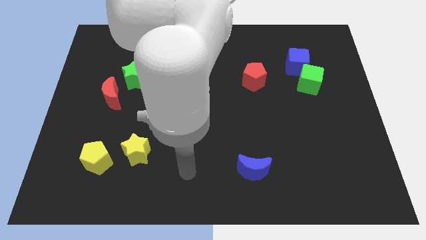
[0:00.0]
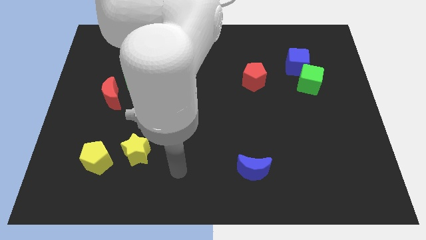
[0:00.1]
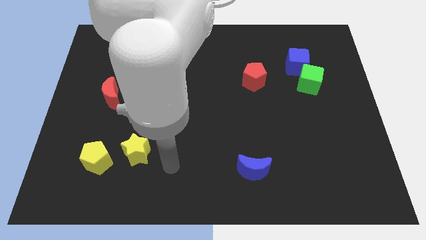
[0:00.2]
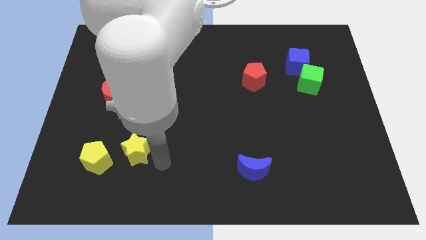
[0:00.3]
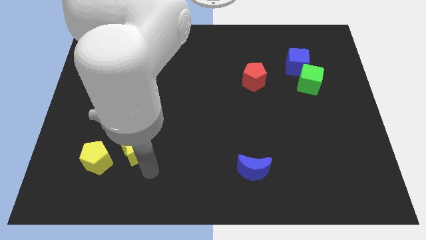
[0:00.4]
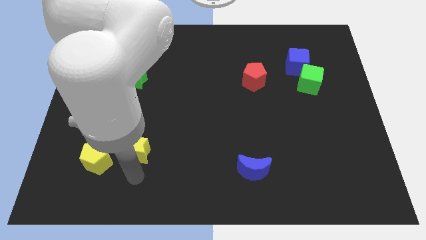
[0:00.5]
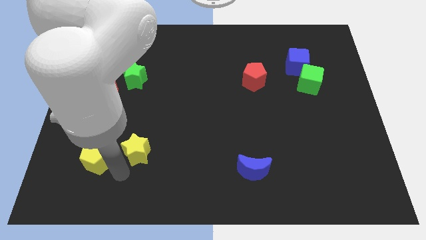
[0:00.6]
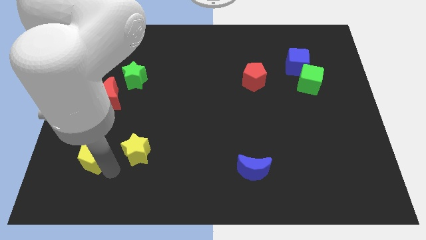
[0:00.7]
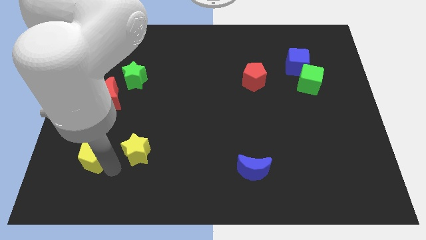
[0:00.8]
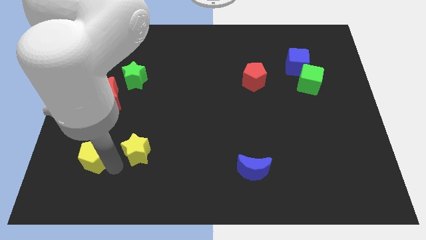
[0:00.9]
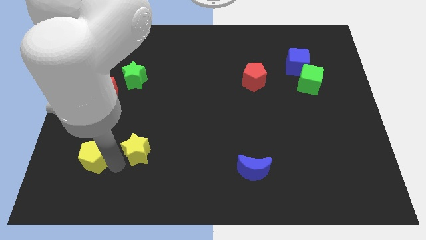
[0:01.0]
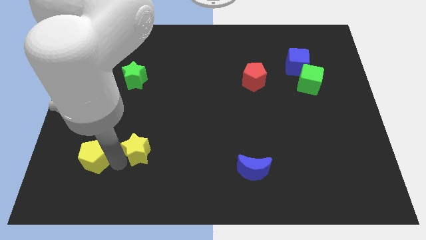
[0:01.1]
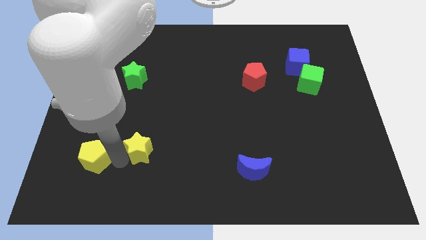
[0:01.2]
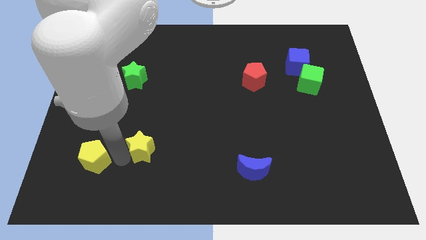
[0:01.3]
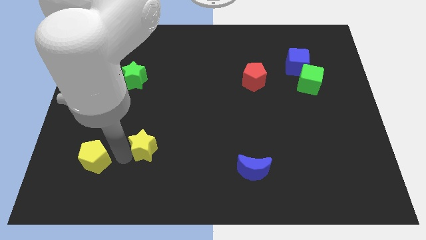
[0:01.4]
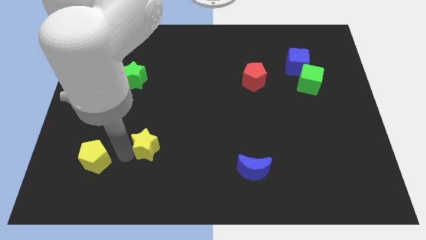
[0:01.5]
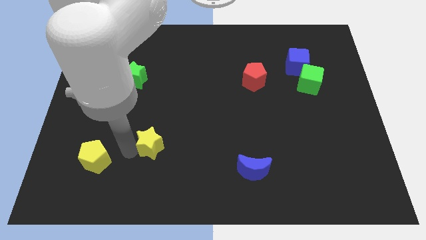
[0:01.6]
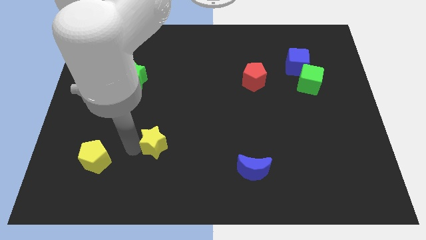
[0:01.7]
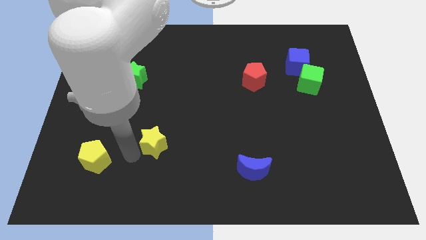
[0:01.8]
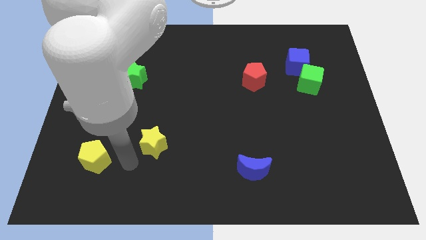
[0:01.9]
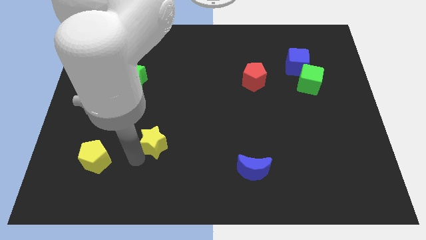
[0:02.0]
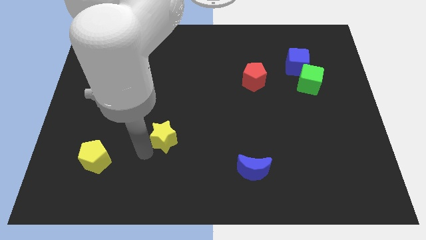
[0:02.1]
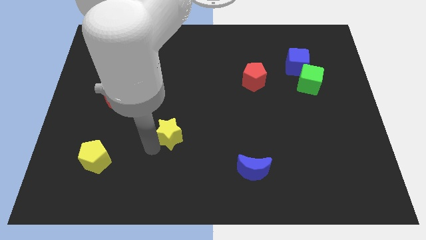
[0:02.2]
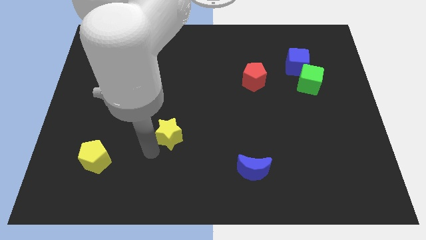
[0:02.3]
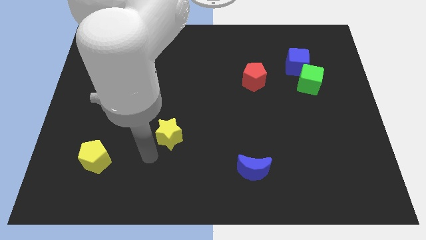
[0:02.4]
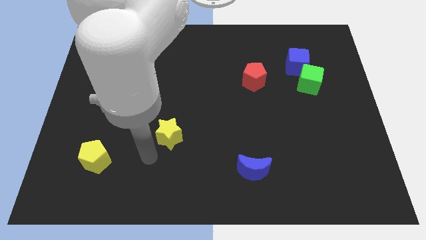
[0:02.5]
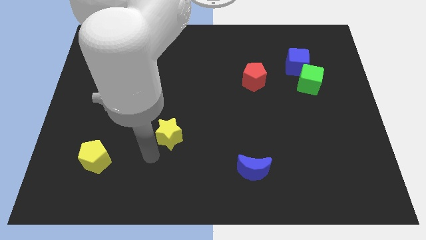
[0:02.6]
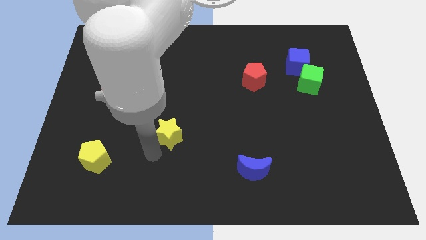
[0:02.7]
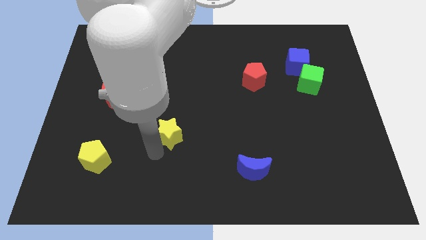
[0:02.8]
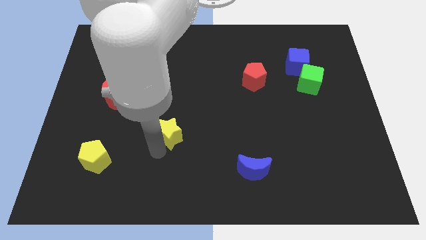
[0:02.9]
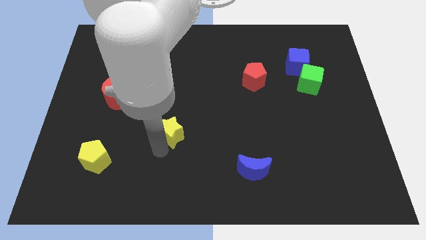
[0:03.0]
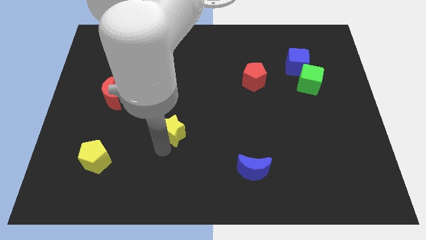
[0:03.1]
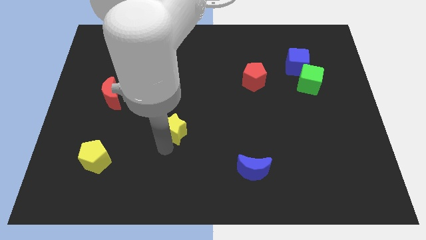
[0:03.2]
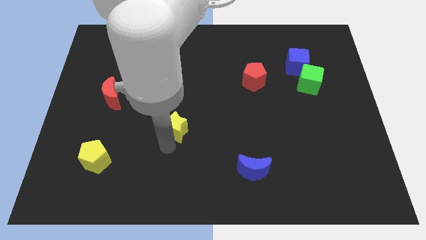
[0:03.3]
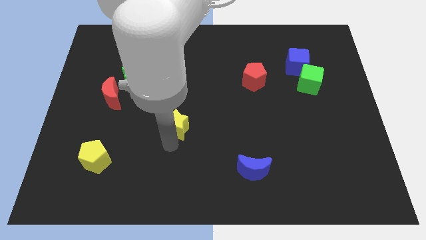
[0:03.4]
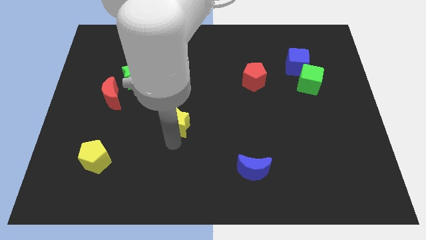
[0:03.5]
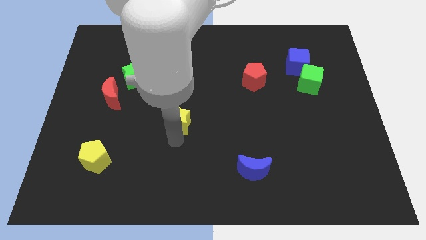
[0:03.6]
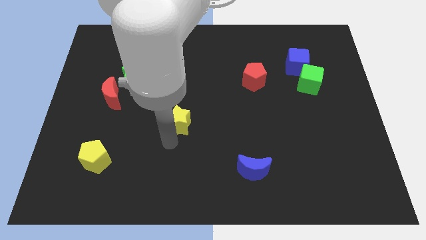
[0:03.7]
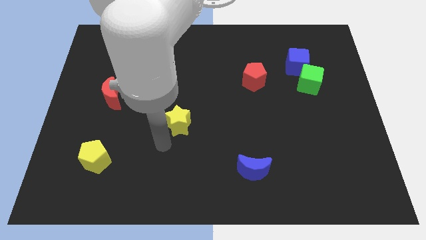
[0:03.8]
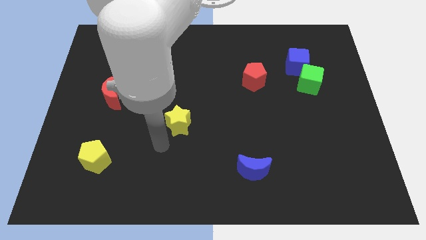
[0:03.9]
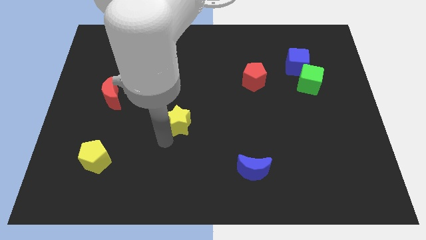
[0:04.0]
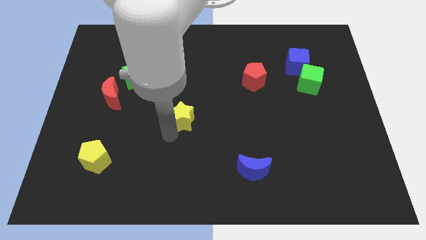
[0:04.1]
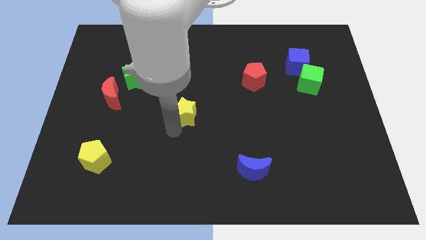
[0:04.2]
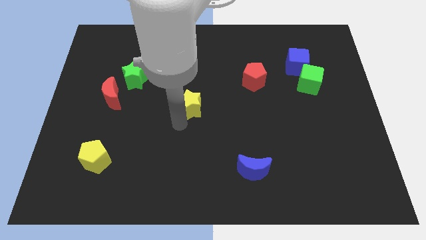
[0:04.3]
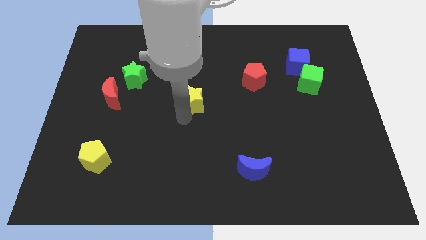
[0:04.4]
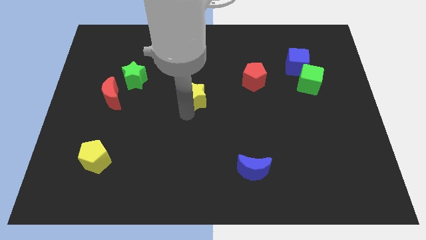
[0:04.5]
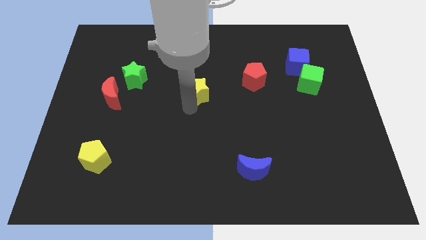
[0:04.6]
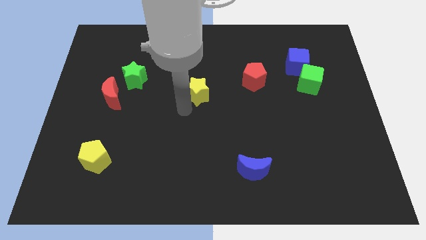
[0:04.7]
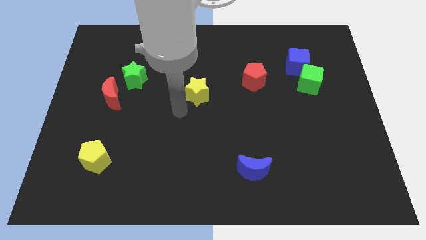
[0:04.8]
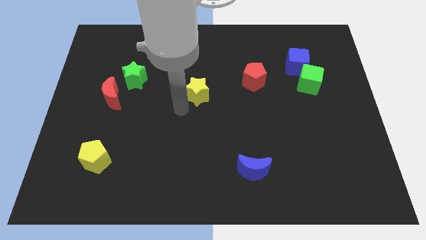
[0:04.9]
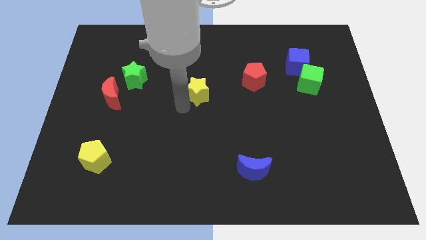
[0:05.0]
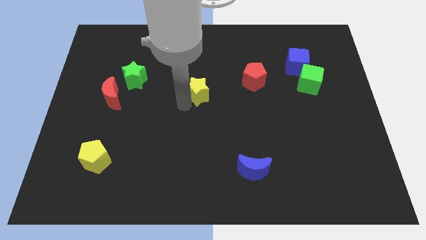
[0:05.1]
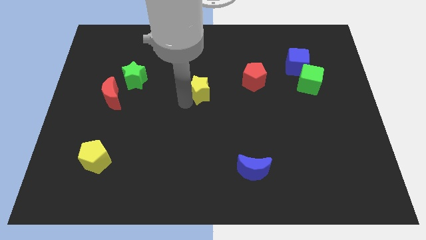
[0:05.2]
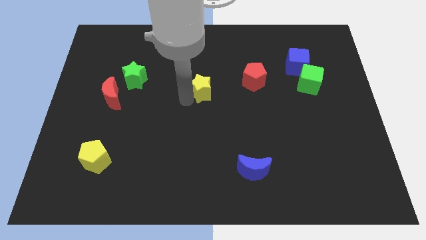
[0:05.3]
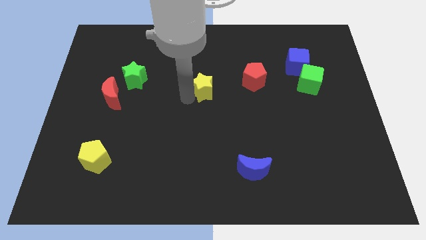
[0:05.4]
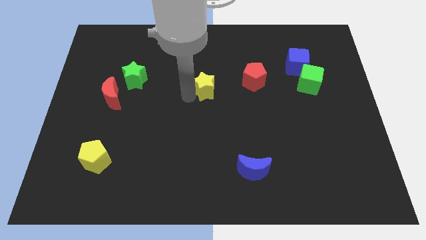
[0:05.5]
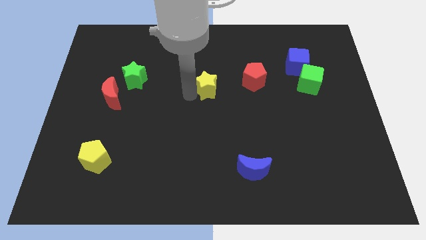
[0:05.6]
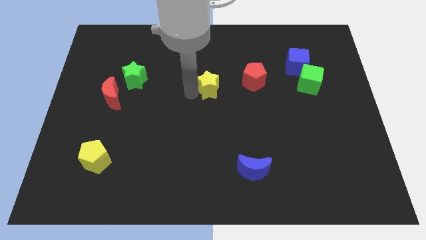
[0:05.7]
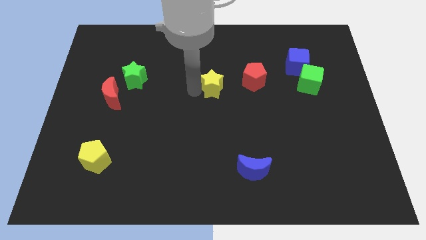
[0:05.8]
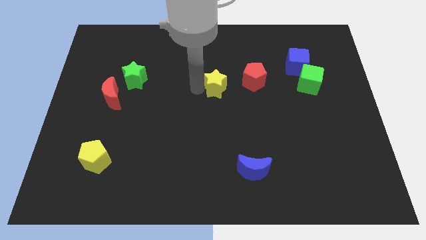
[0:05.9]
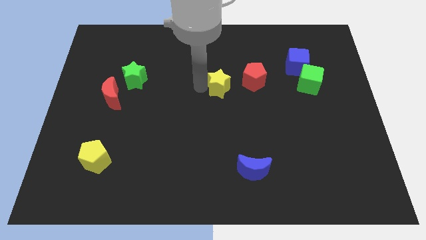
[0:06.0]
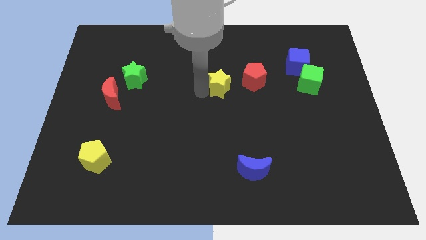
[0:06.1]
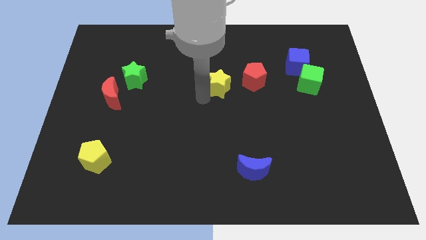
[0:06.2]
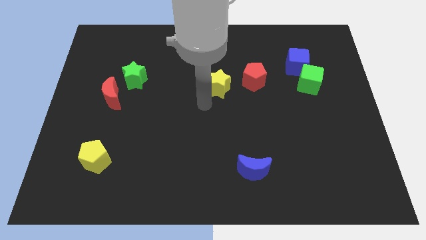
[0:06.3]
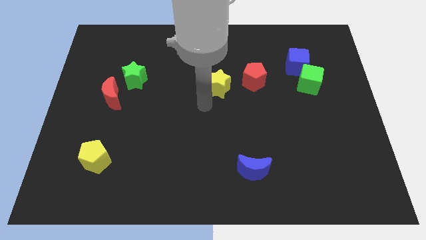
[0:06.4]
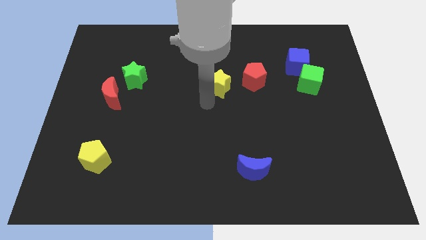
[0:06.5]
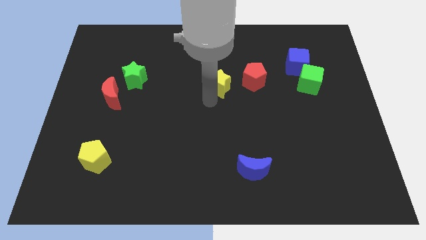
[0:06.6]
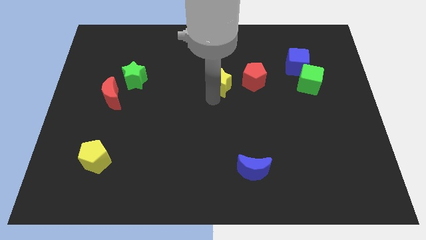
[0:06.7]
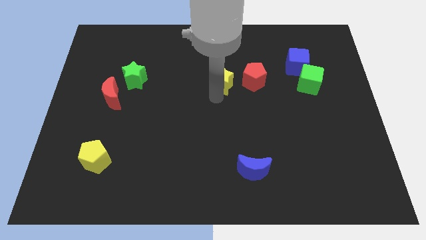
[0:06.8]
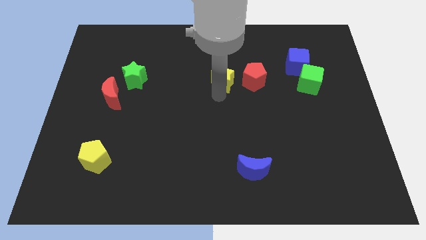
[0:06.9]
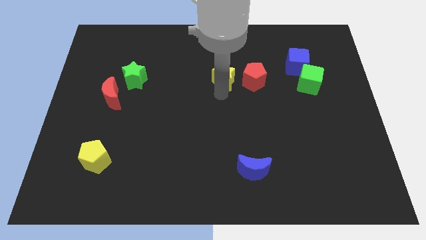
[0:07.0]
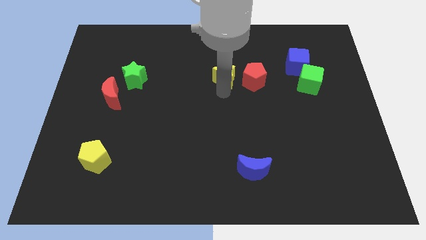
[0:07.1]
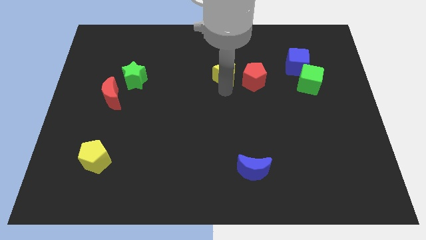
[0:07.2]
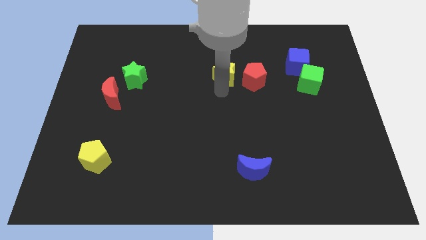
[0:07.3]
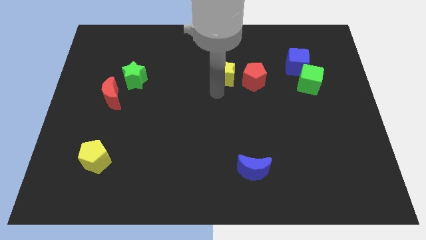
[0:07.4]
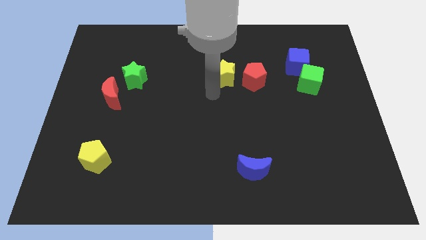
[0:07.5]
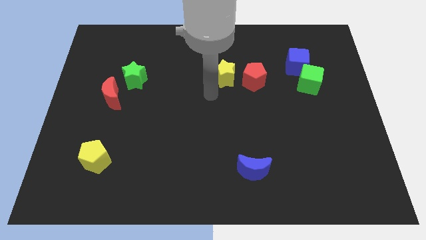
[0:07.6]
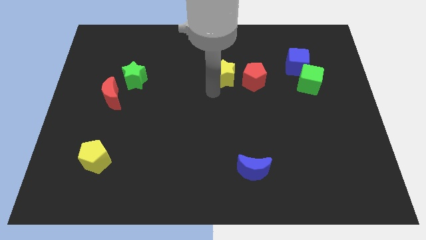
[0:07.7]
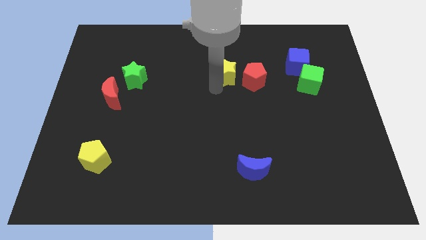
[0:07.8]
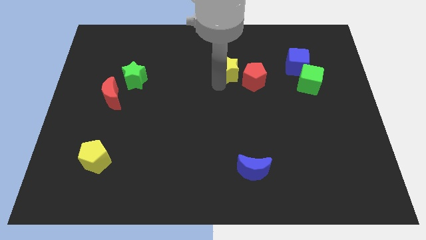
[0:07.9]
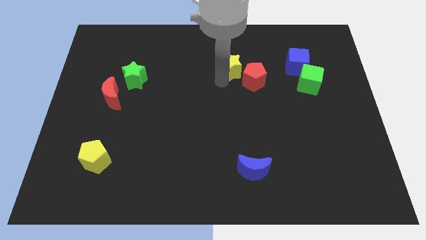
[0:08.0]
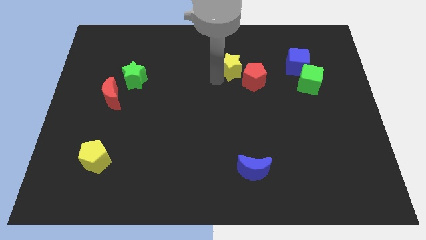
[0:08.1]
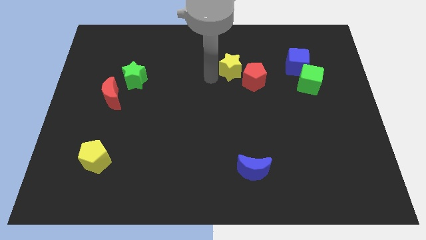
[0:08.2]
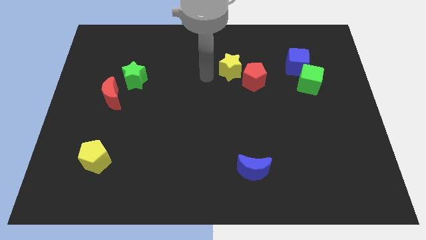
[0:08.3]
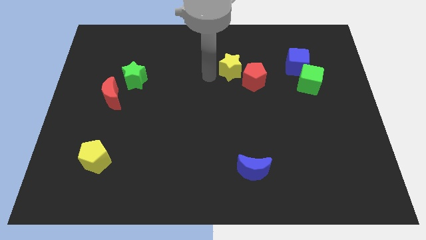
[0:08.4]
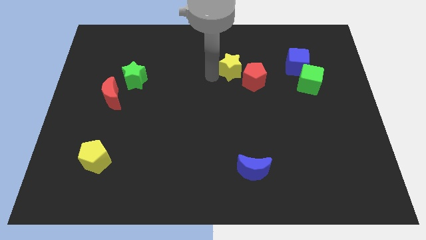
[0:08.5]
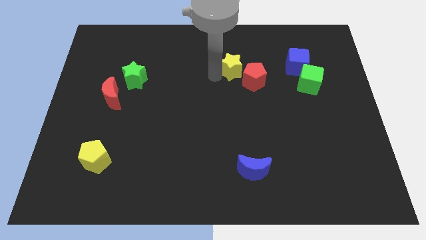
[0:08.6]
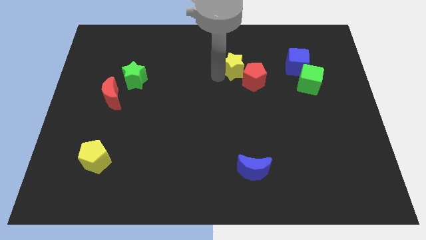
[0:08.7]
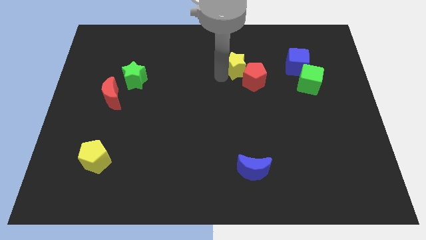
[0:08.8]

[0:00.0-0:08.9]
put the yellow star to the left side of the blue cube
